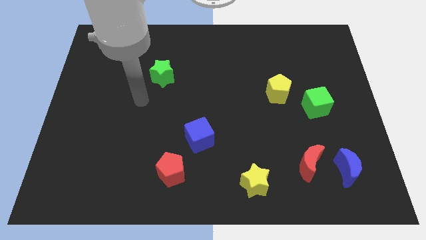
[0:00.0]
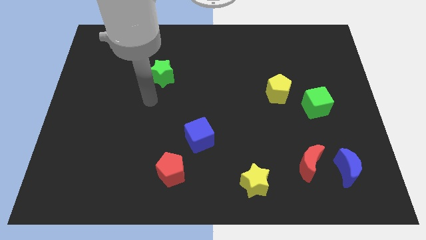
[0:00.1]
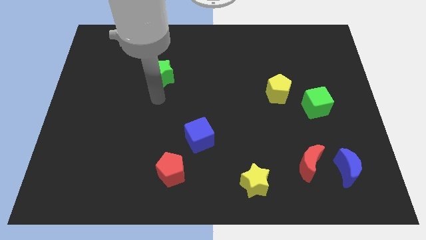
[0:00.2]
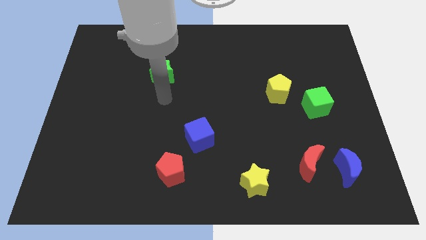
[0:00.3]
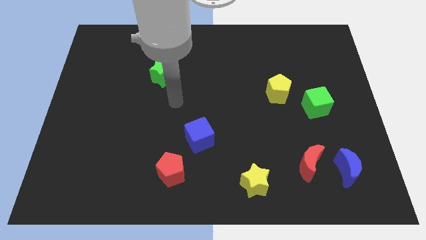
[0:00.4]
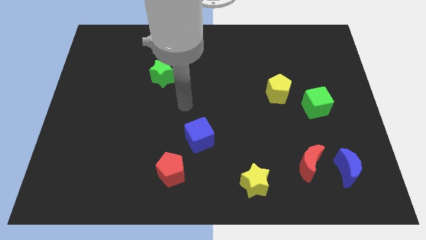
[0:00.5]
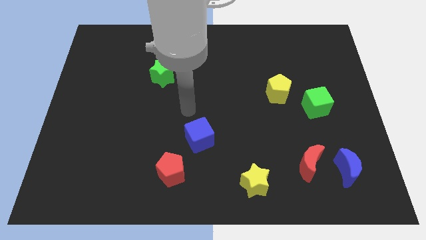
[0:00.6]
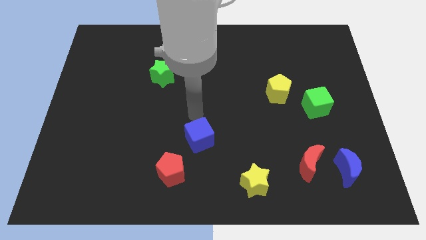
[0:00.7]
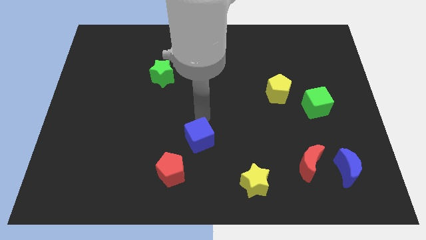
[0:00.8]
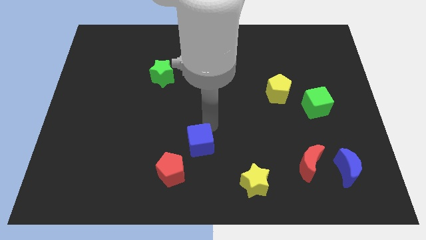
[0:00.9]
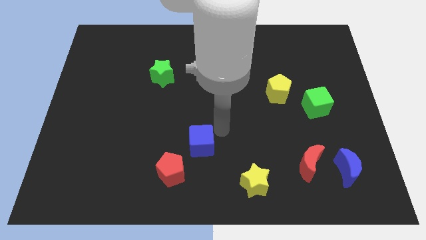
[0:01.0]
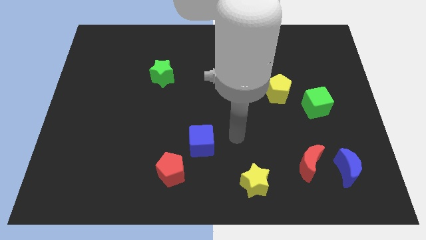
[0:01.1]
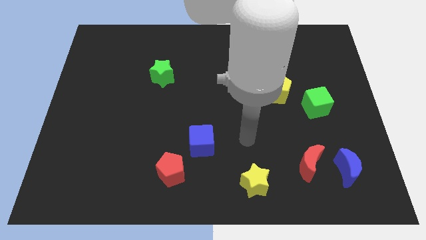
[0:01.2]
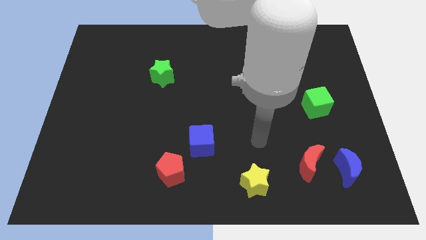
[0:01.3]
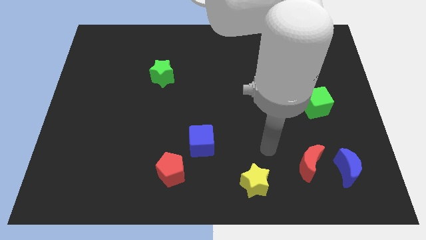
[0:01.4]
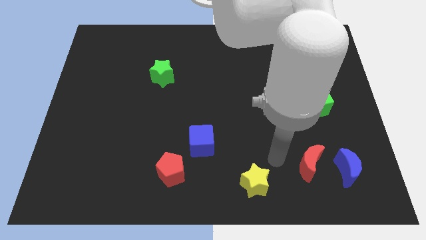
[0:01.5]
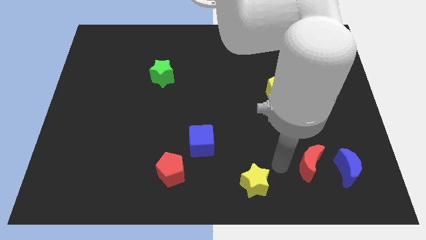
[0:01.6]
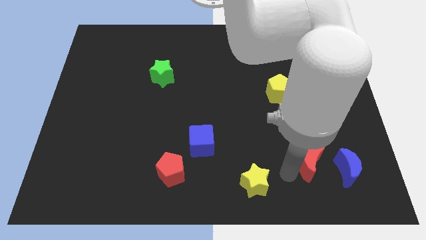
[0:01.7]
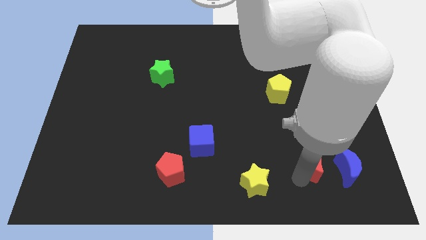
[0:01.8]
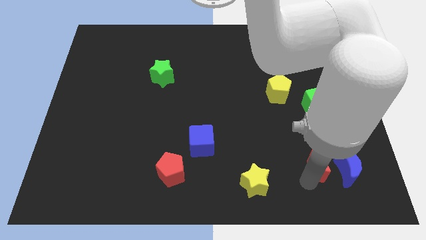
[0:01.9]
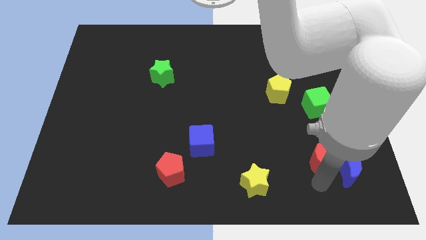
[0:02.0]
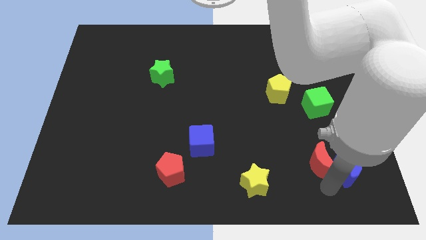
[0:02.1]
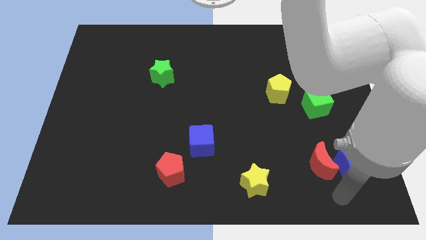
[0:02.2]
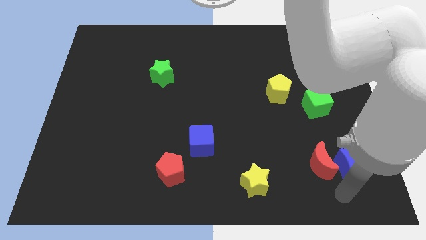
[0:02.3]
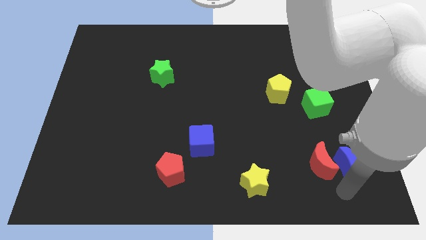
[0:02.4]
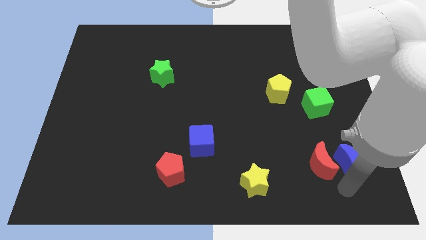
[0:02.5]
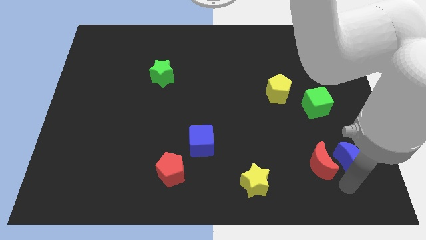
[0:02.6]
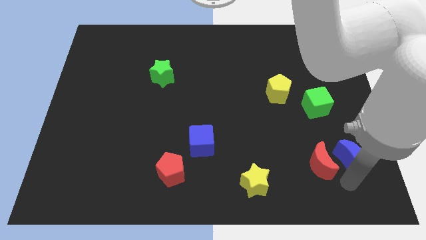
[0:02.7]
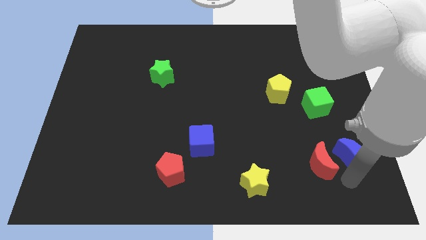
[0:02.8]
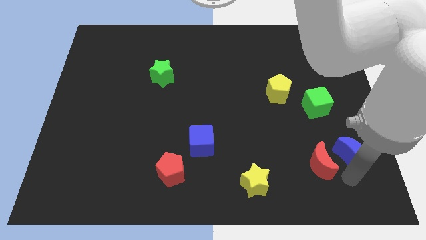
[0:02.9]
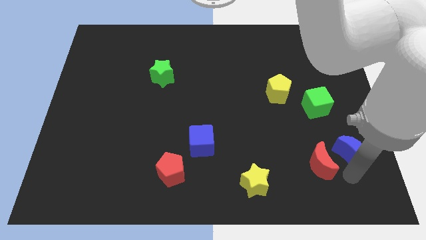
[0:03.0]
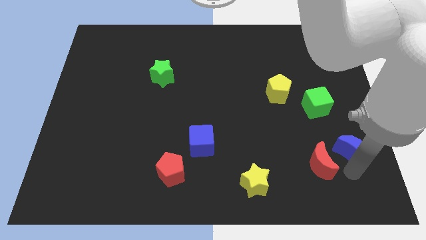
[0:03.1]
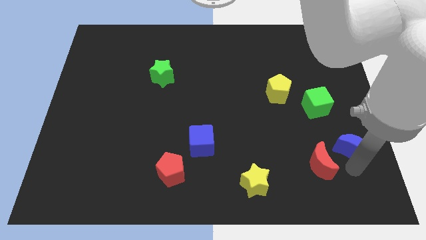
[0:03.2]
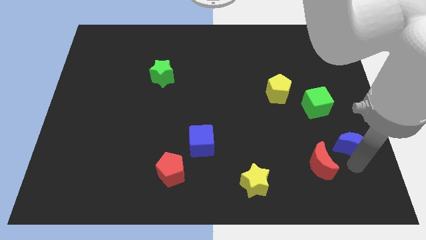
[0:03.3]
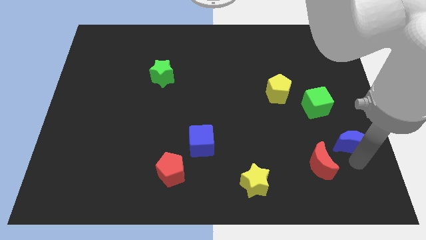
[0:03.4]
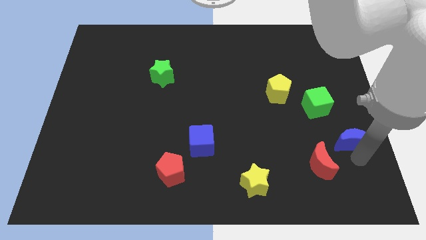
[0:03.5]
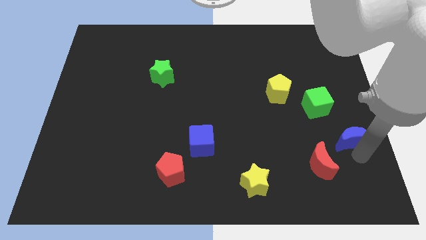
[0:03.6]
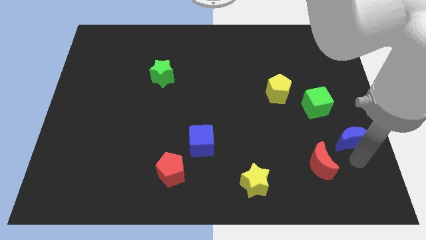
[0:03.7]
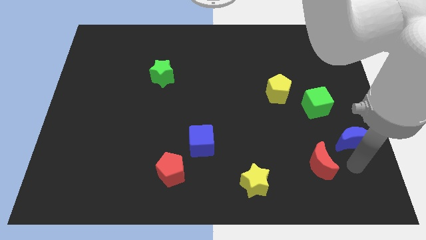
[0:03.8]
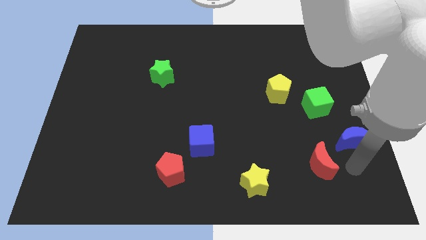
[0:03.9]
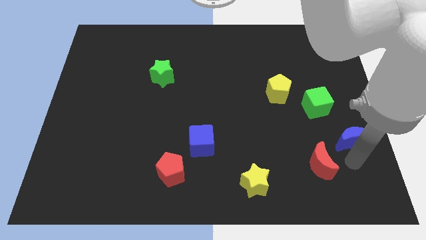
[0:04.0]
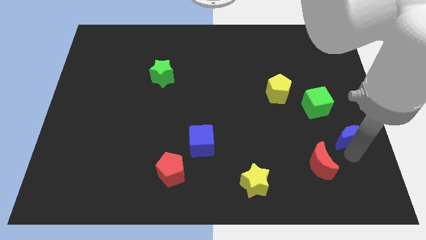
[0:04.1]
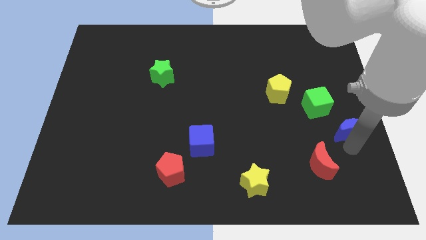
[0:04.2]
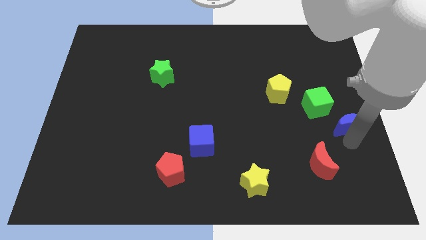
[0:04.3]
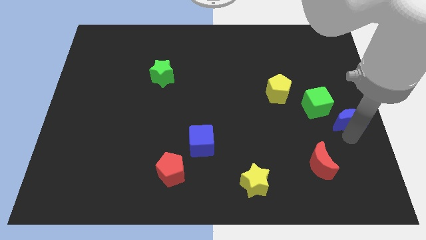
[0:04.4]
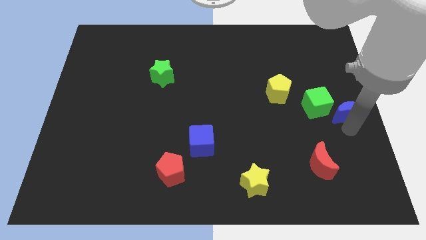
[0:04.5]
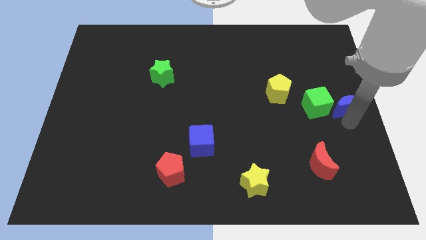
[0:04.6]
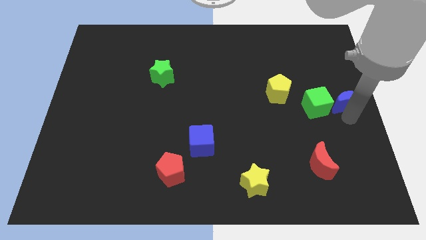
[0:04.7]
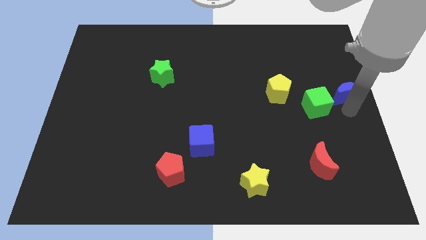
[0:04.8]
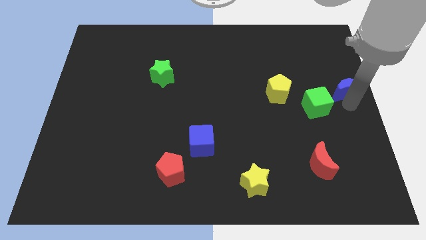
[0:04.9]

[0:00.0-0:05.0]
slide the blue moon up

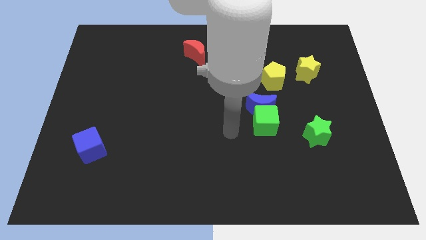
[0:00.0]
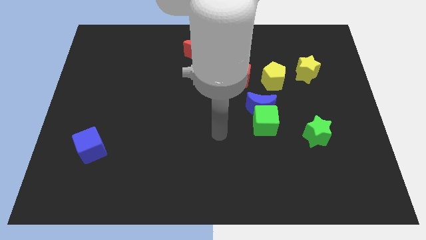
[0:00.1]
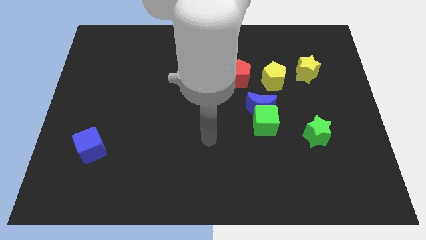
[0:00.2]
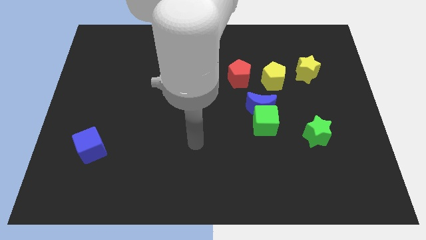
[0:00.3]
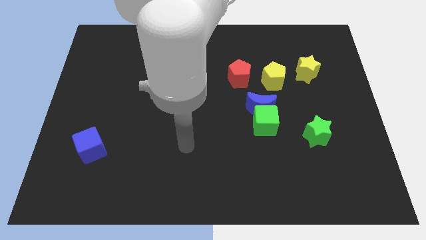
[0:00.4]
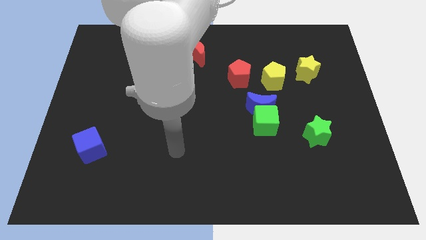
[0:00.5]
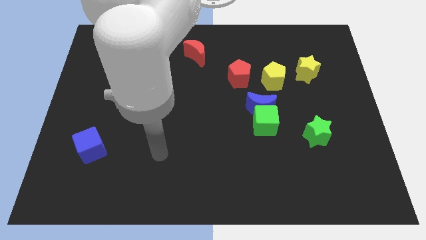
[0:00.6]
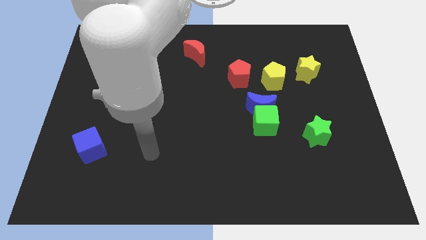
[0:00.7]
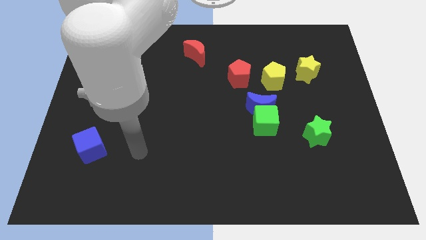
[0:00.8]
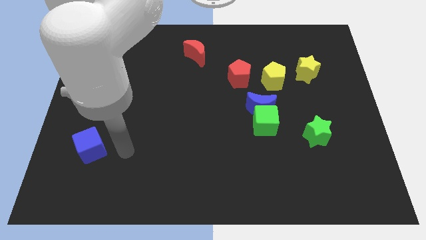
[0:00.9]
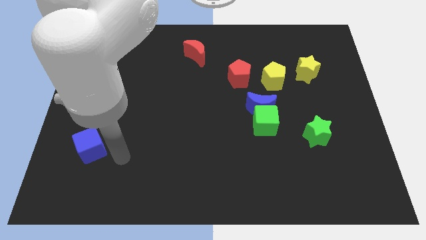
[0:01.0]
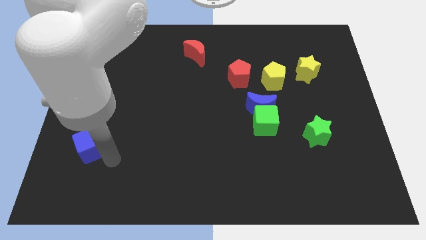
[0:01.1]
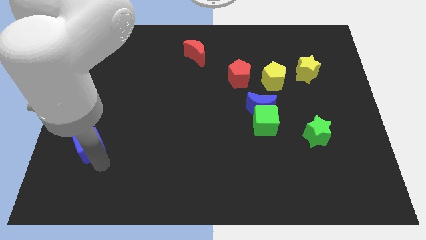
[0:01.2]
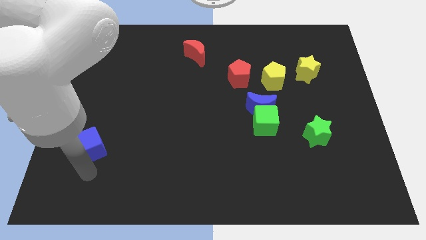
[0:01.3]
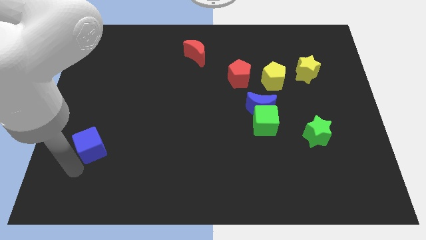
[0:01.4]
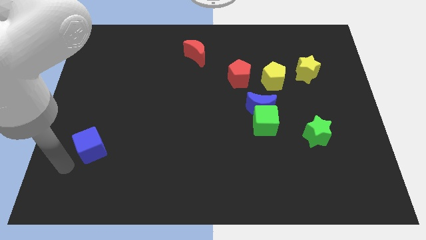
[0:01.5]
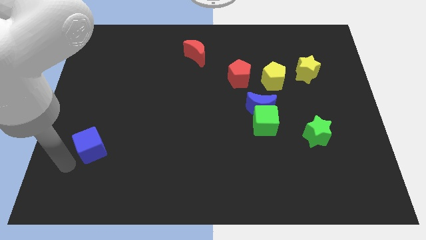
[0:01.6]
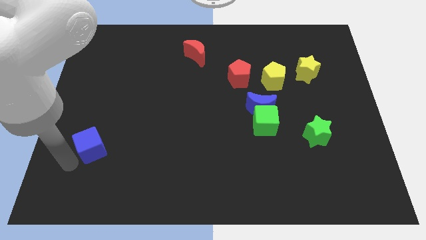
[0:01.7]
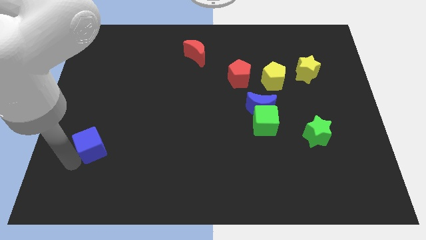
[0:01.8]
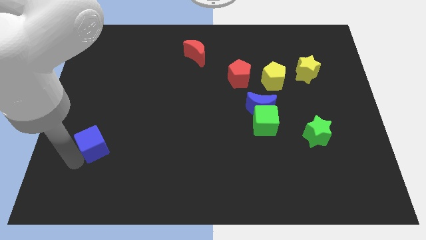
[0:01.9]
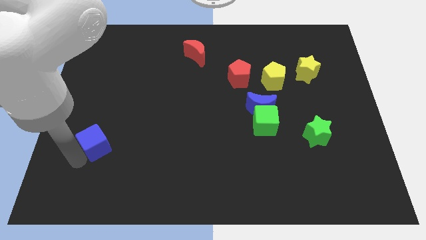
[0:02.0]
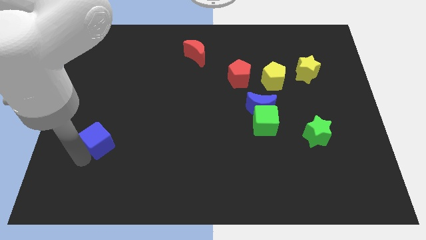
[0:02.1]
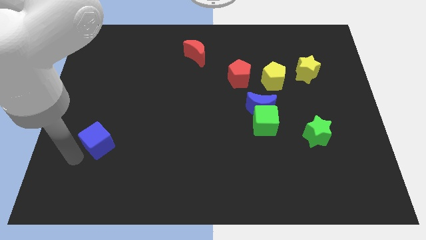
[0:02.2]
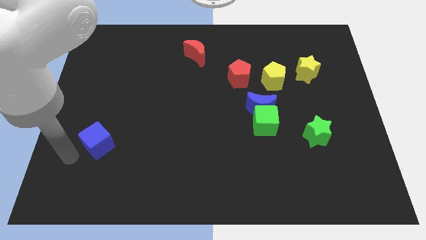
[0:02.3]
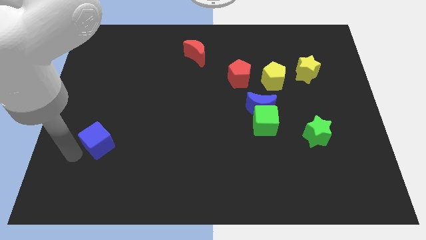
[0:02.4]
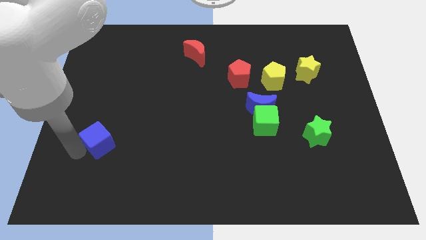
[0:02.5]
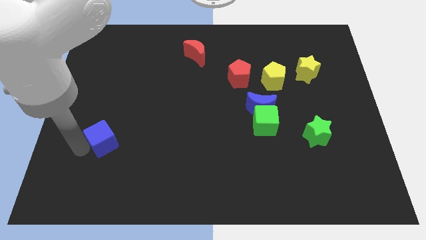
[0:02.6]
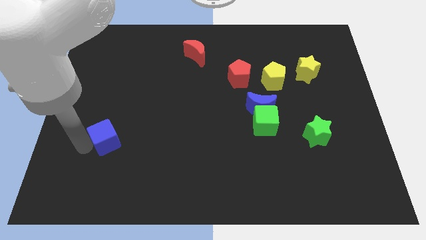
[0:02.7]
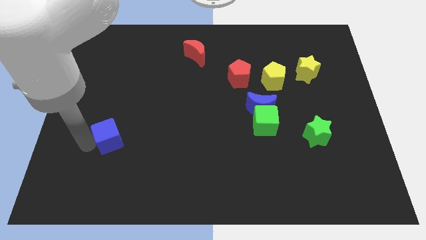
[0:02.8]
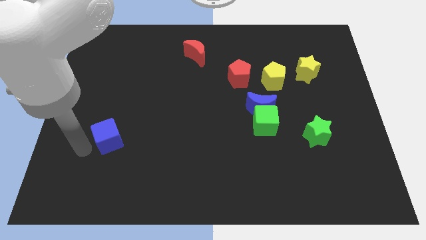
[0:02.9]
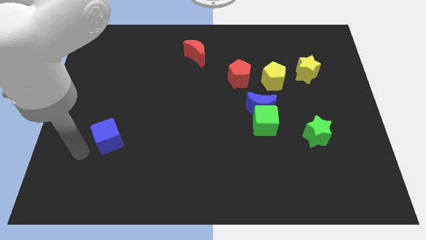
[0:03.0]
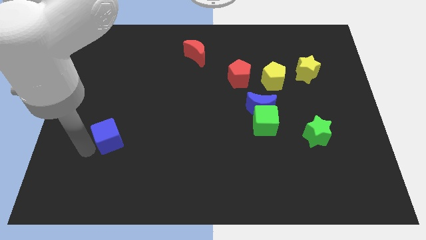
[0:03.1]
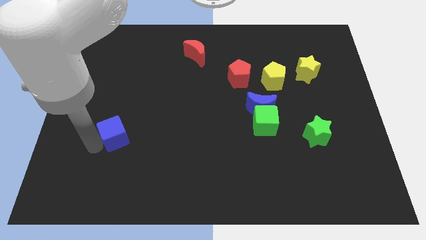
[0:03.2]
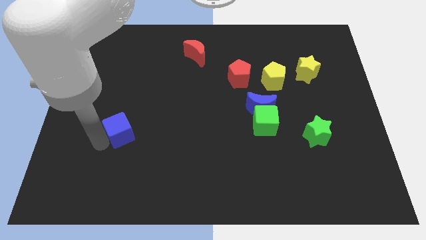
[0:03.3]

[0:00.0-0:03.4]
push the blue cube diagonally upwards and right slightly

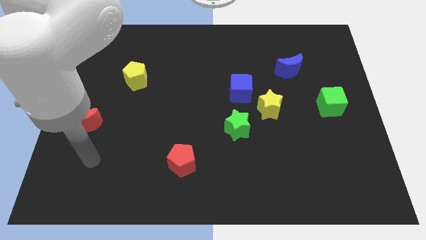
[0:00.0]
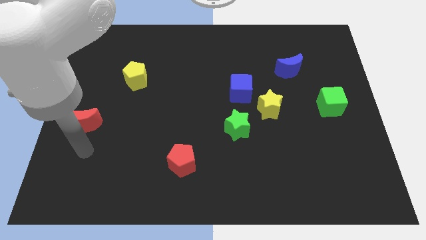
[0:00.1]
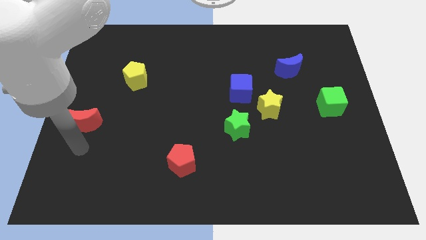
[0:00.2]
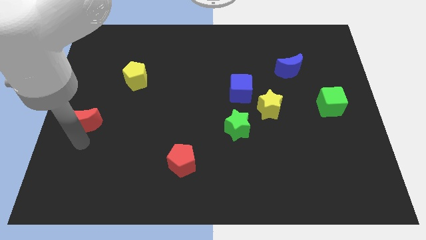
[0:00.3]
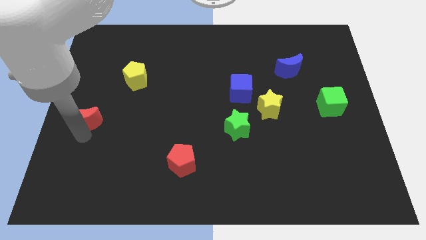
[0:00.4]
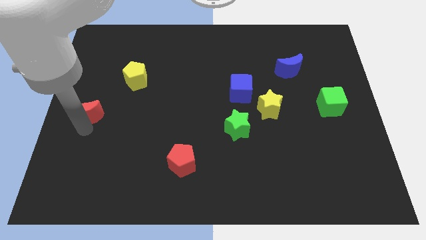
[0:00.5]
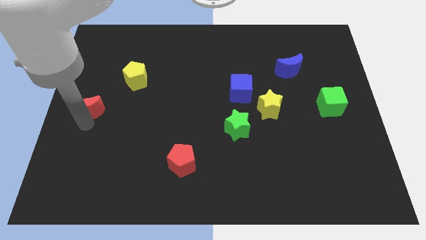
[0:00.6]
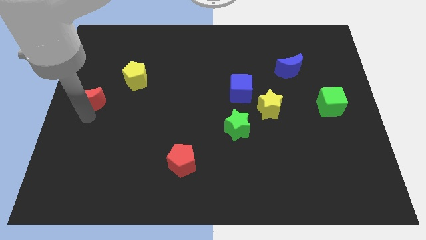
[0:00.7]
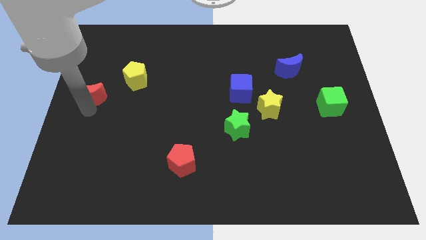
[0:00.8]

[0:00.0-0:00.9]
slide the red moon a bit up
